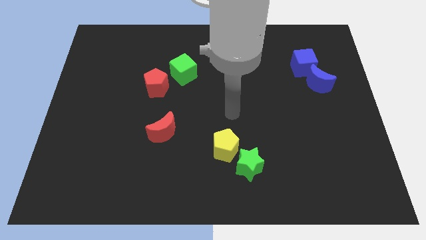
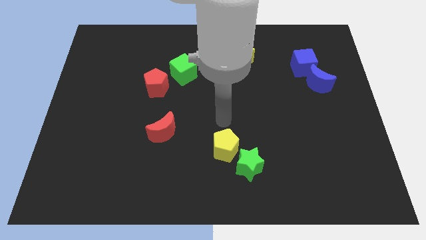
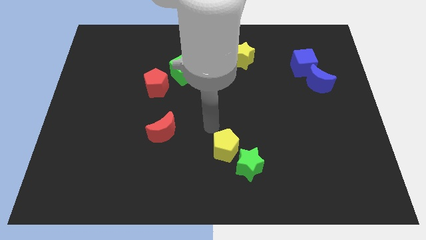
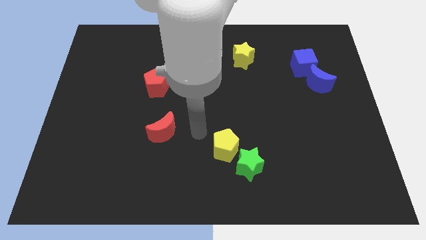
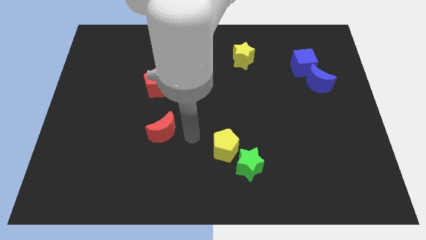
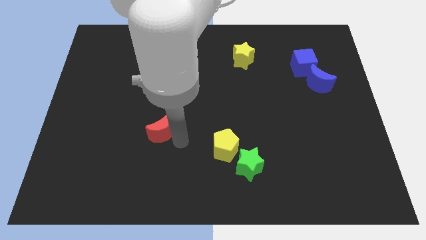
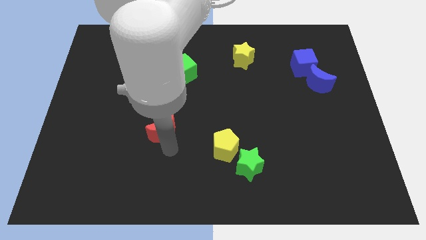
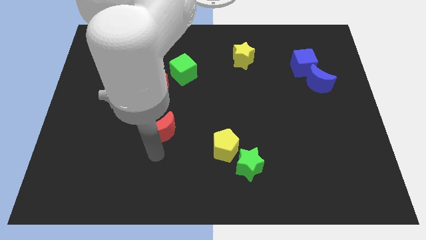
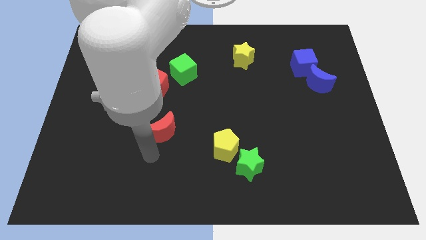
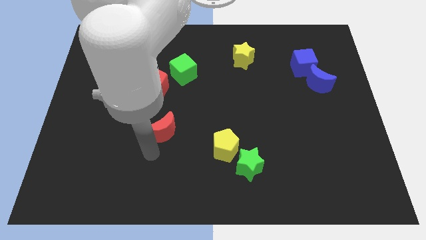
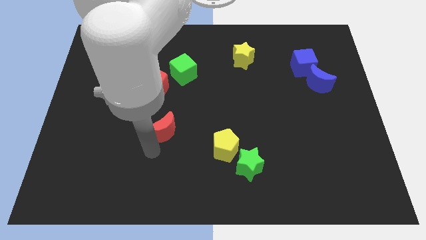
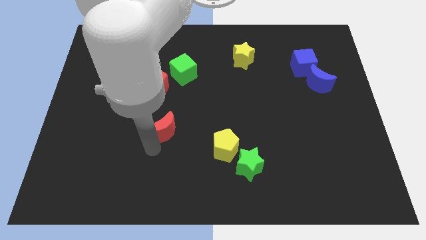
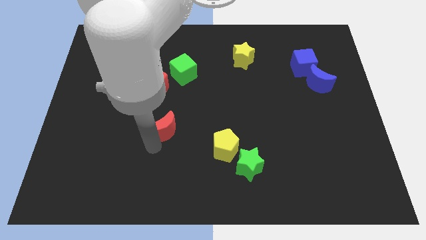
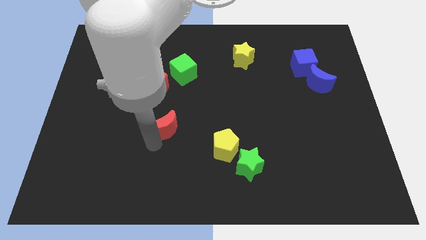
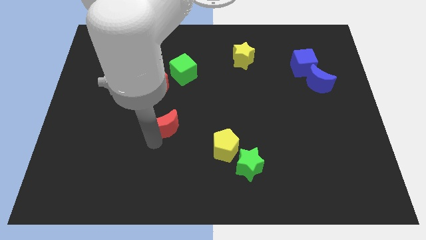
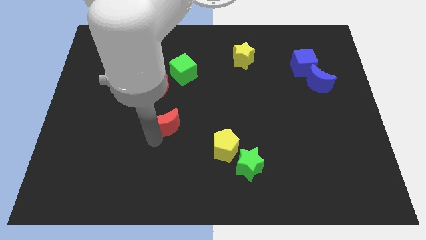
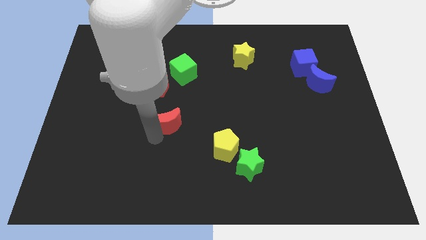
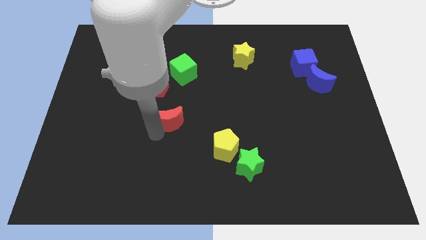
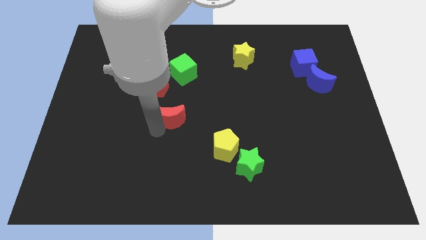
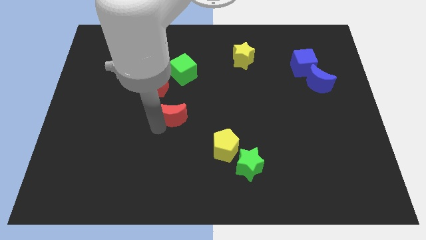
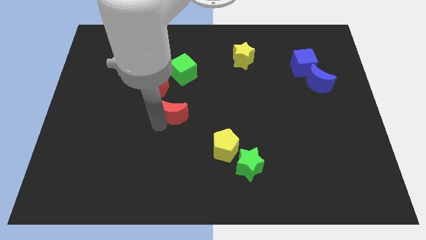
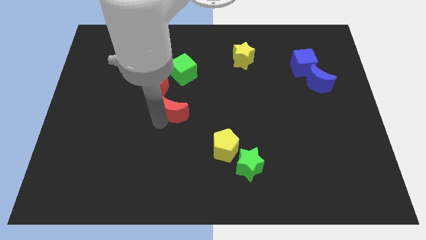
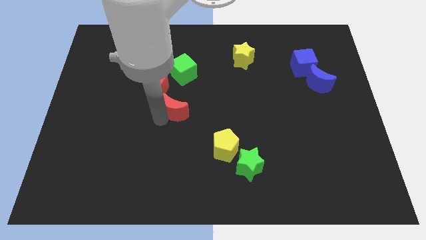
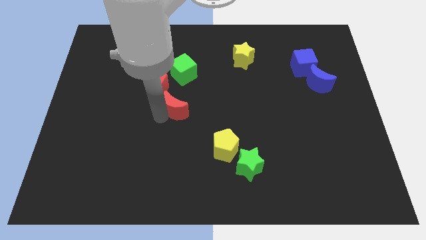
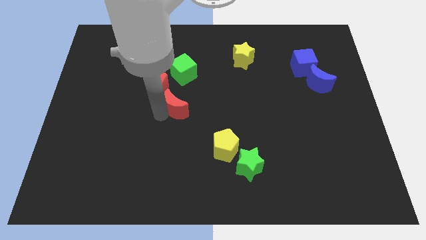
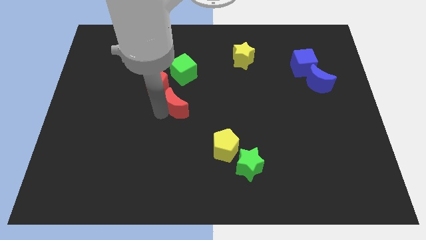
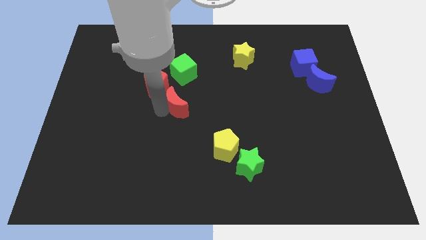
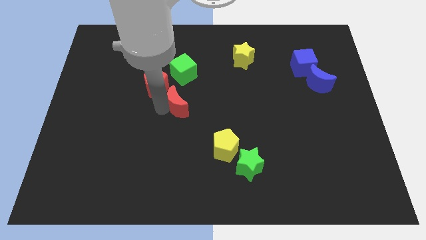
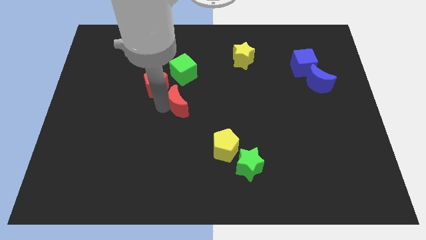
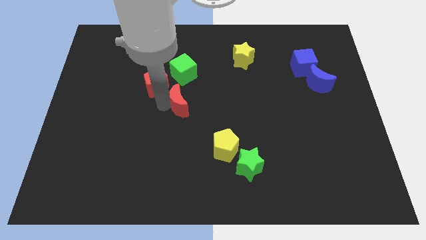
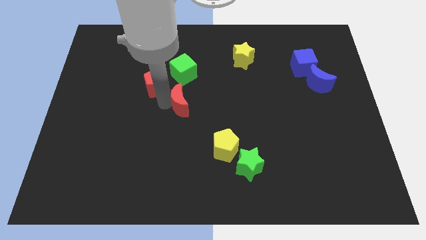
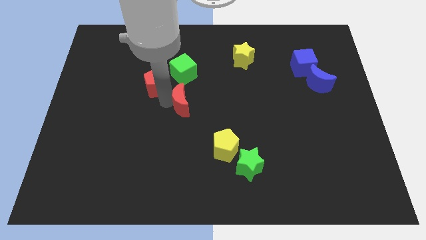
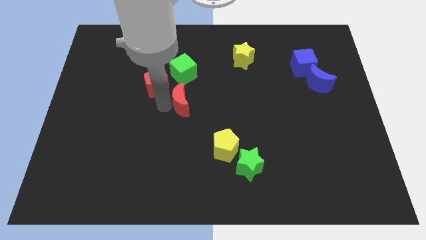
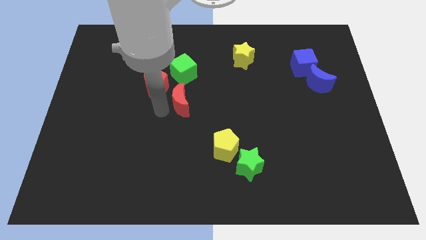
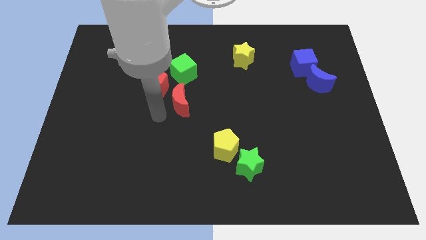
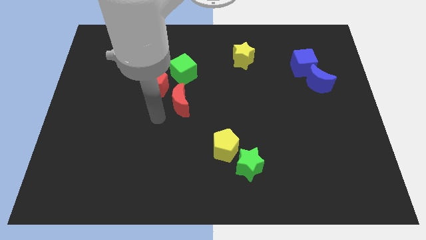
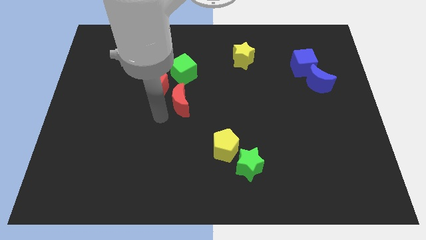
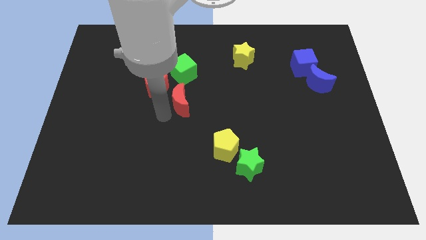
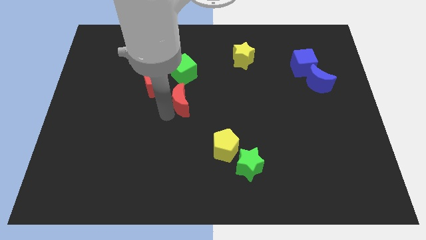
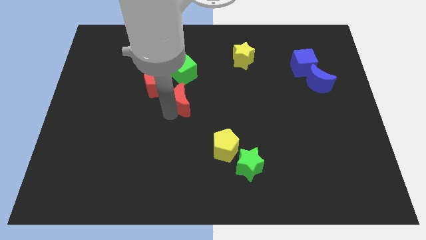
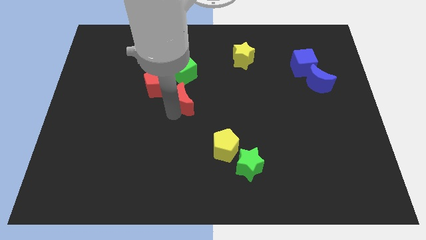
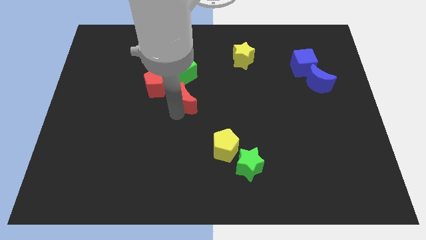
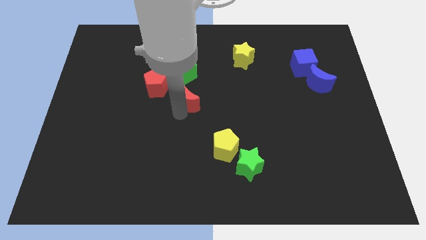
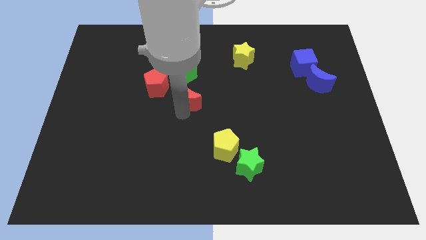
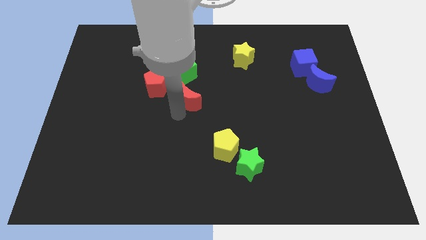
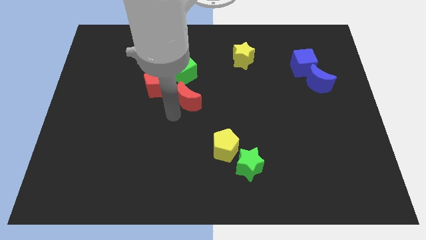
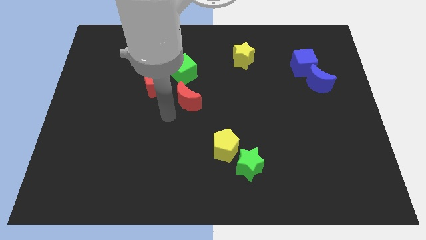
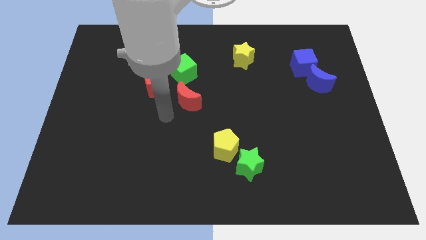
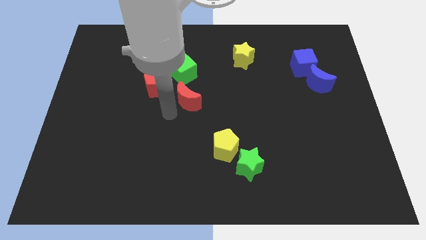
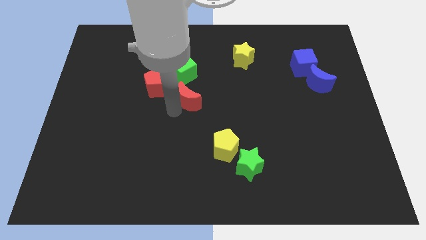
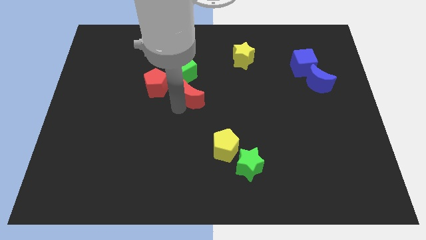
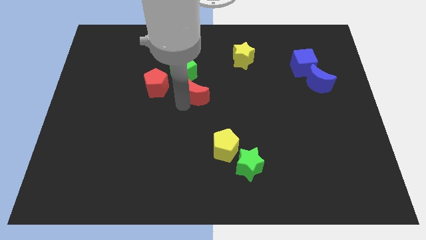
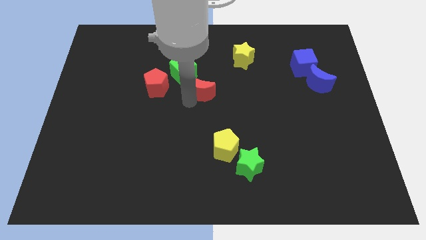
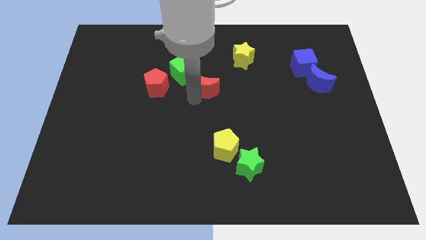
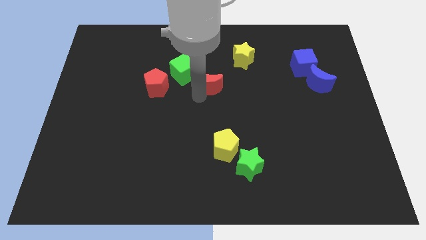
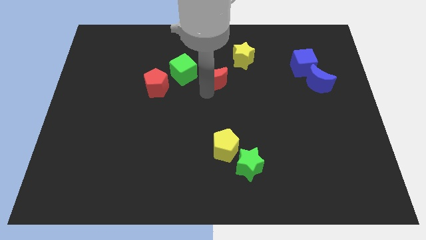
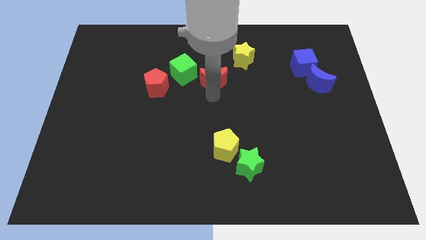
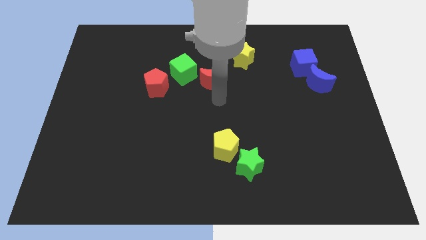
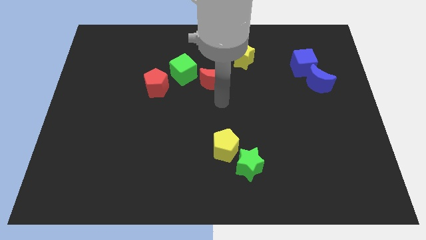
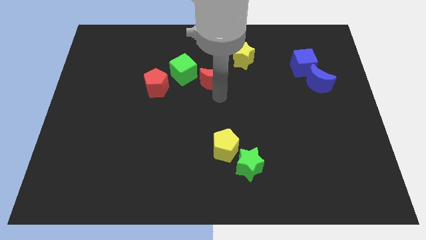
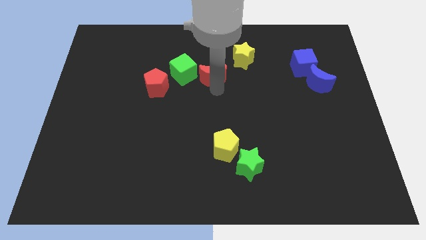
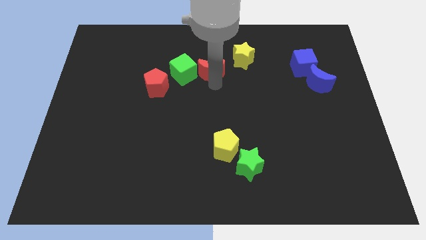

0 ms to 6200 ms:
slide the red moon to the top right of the green cube

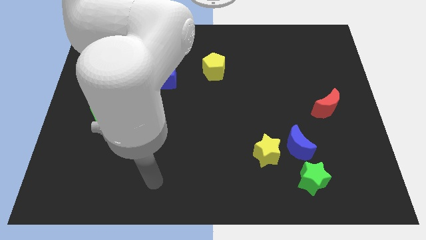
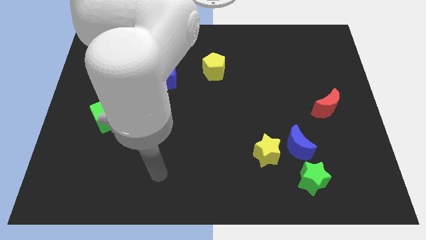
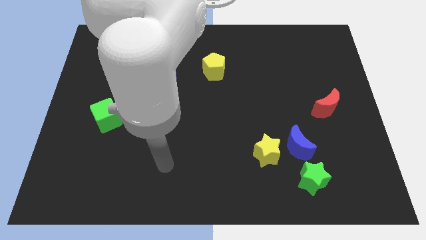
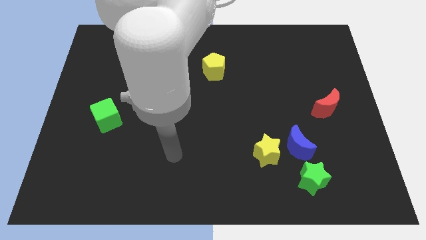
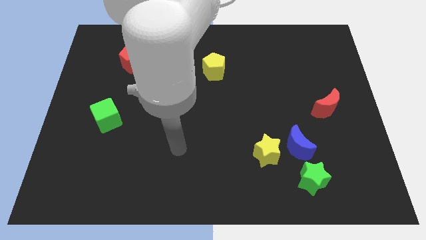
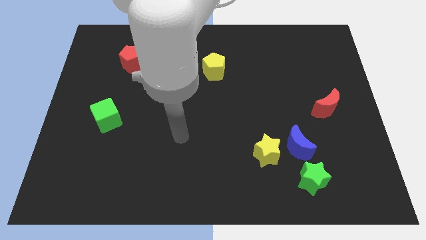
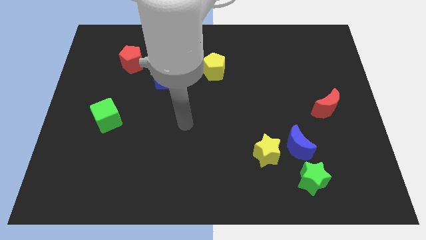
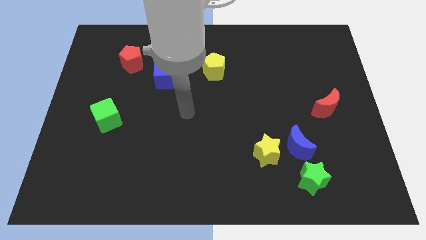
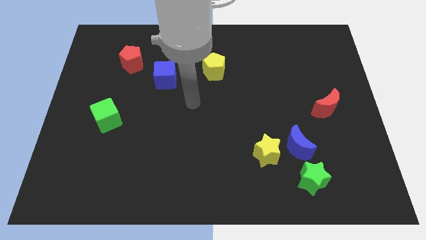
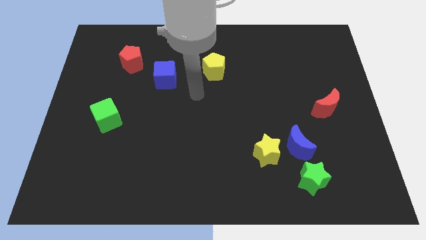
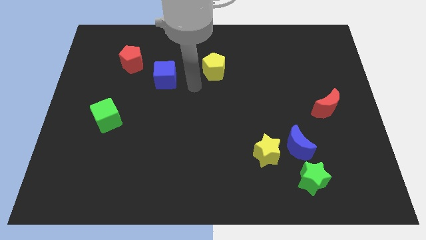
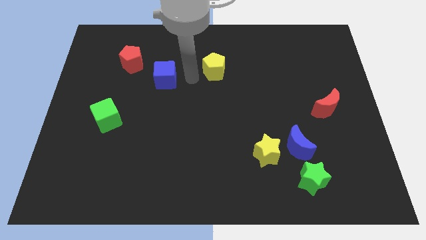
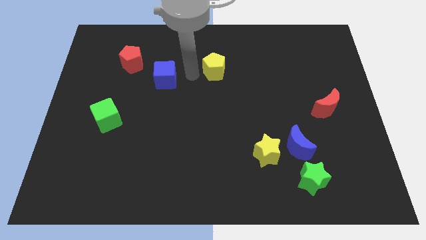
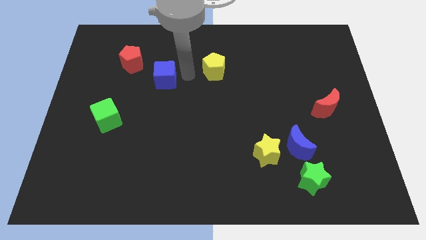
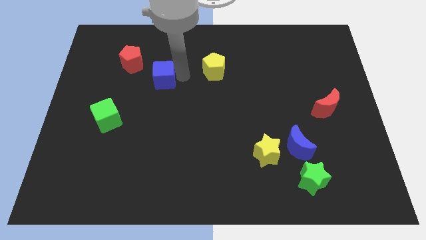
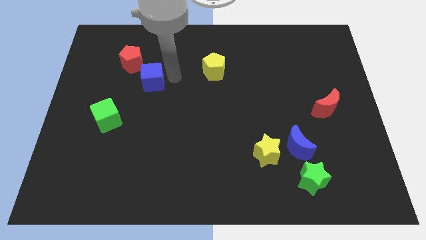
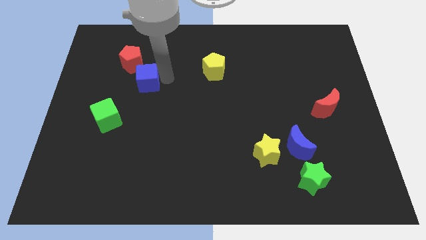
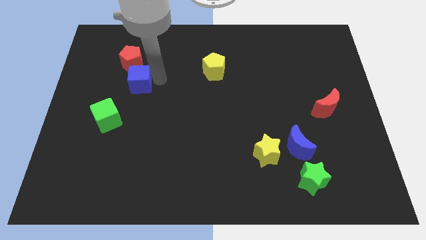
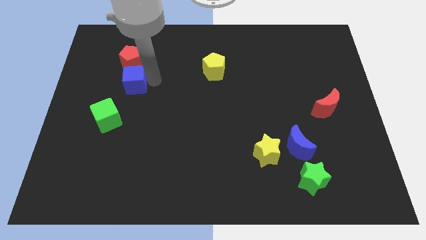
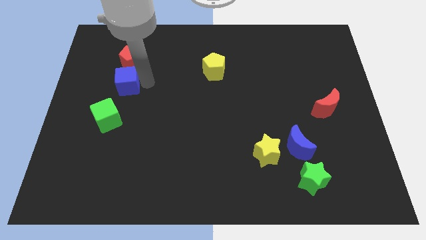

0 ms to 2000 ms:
push the blue cube diagonally down and to the left of the red pentagon
